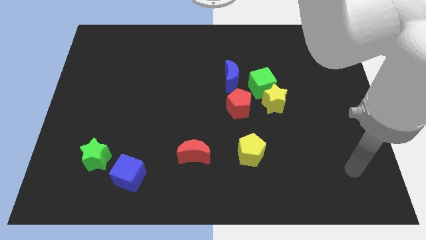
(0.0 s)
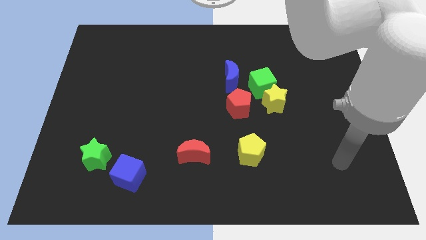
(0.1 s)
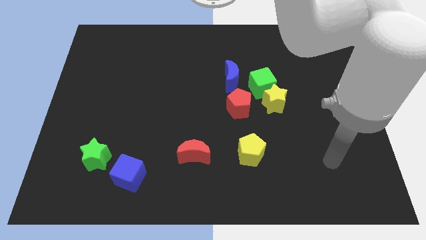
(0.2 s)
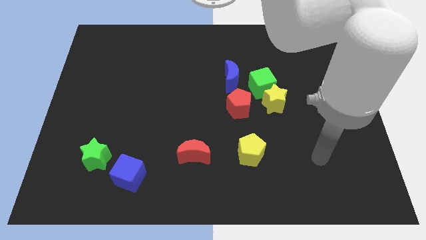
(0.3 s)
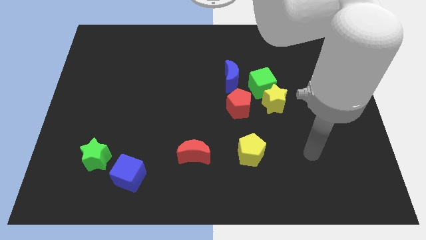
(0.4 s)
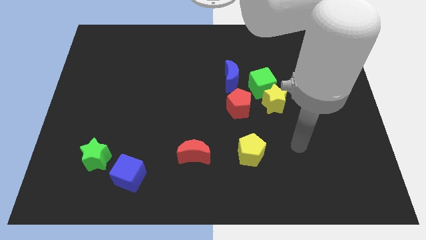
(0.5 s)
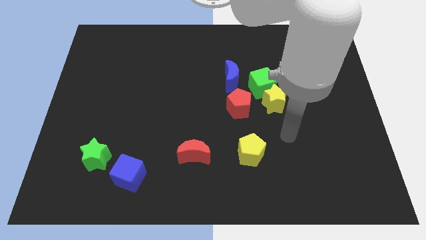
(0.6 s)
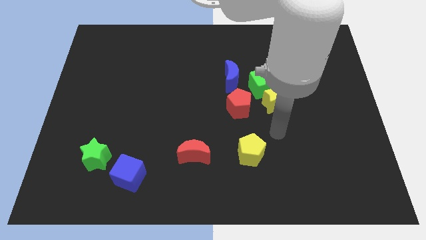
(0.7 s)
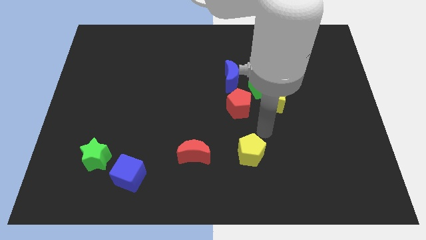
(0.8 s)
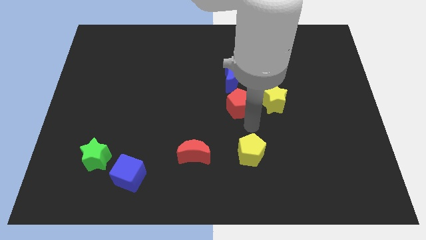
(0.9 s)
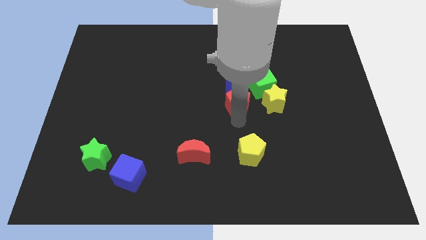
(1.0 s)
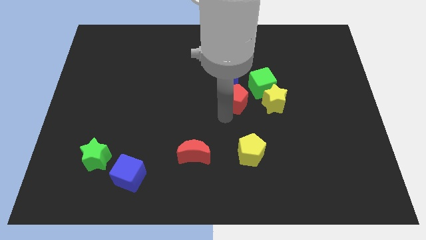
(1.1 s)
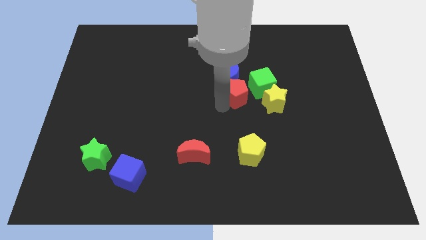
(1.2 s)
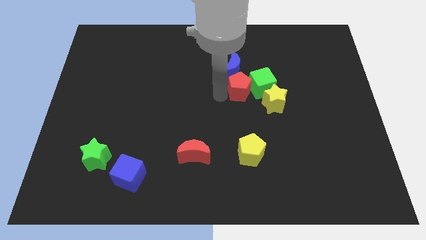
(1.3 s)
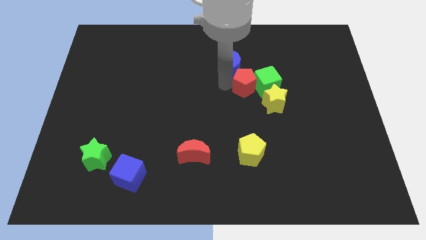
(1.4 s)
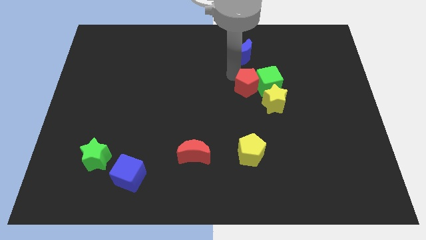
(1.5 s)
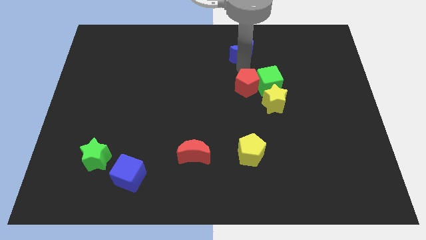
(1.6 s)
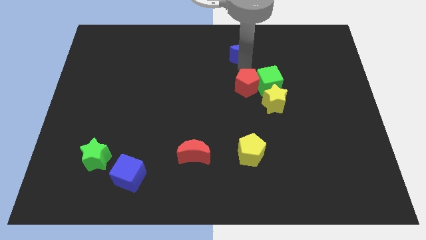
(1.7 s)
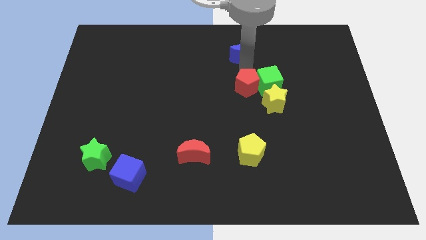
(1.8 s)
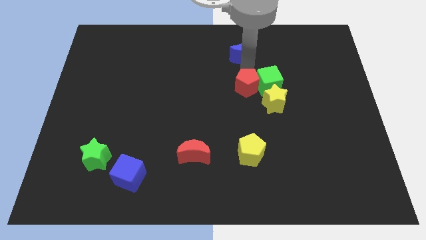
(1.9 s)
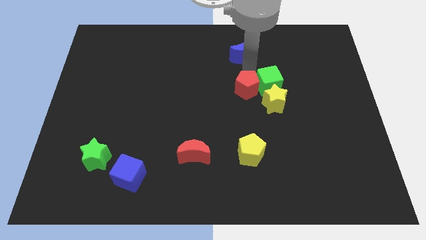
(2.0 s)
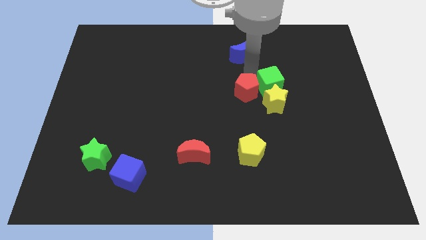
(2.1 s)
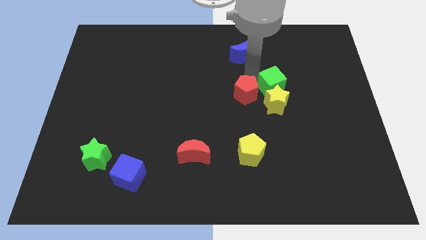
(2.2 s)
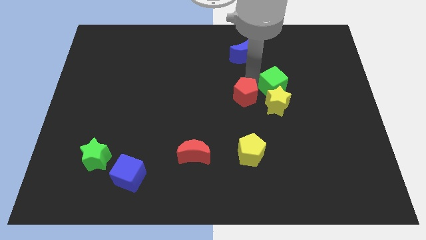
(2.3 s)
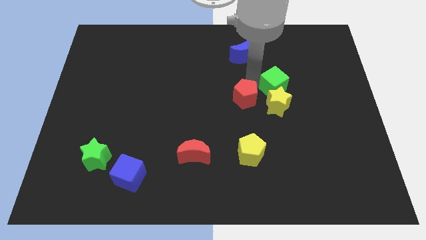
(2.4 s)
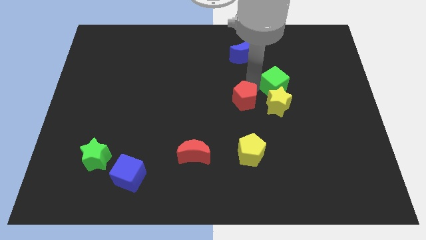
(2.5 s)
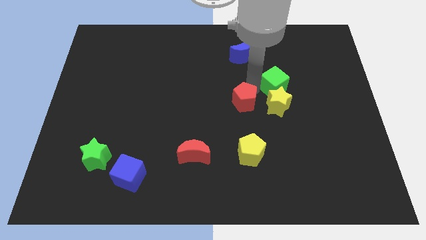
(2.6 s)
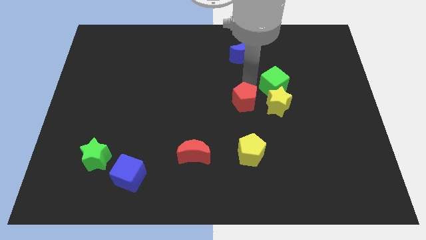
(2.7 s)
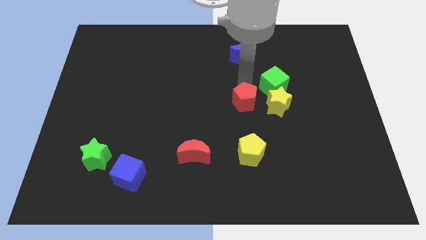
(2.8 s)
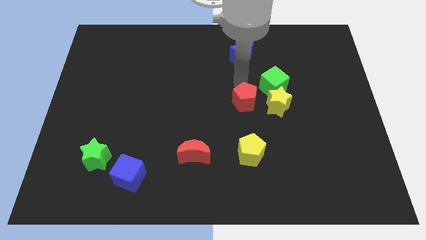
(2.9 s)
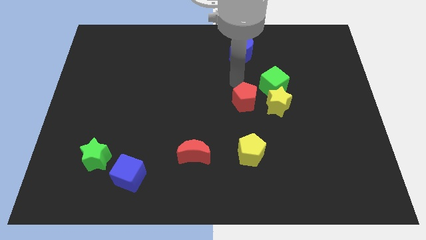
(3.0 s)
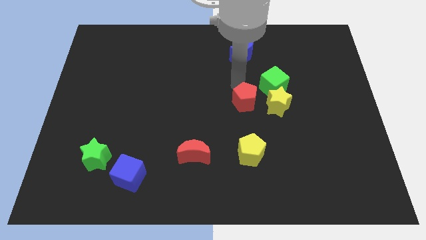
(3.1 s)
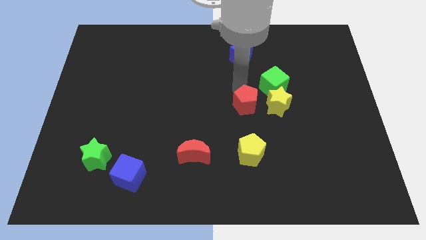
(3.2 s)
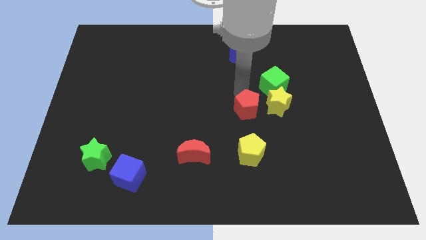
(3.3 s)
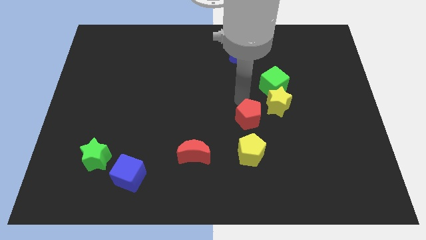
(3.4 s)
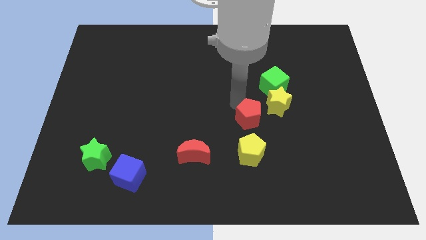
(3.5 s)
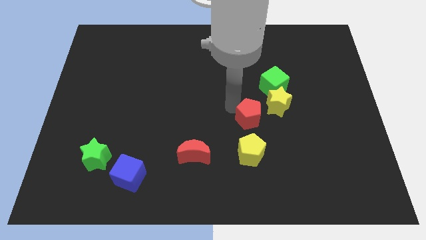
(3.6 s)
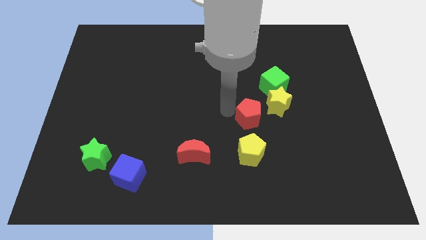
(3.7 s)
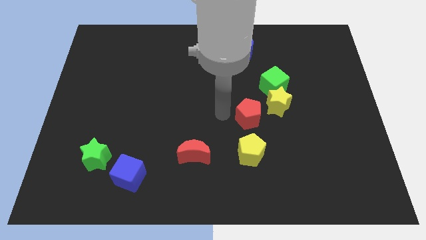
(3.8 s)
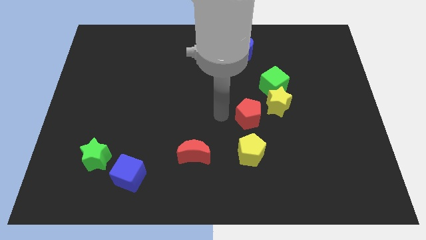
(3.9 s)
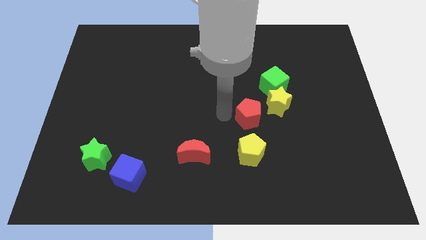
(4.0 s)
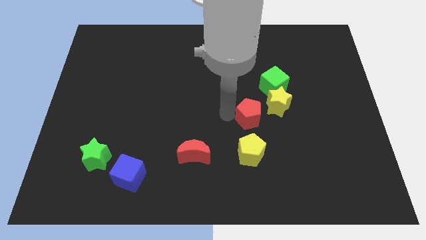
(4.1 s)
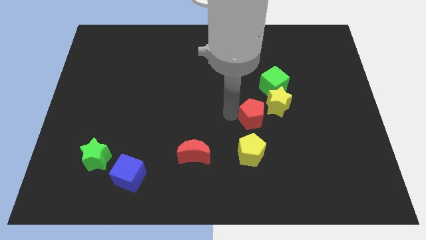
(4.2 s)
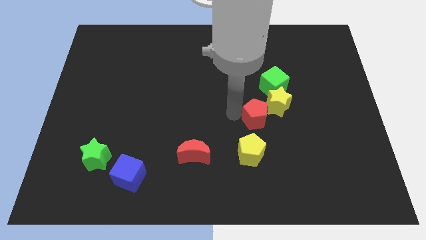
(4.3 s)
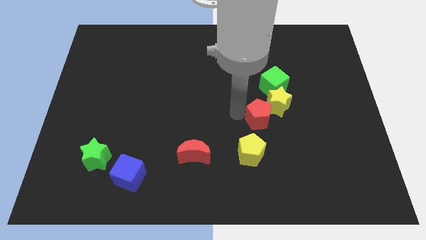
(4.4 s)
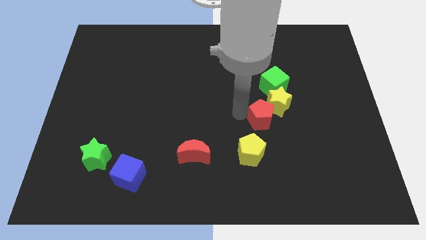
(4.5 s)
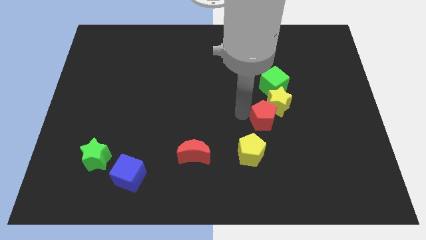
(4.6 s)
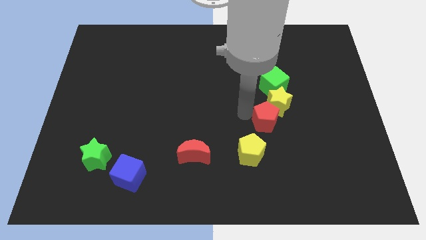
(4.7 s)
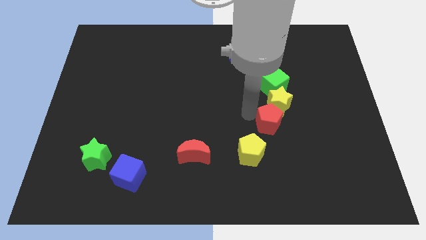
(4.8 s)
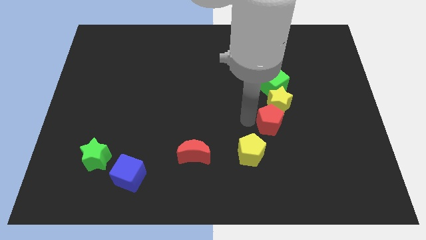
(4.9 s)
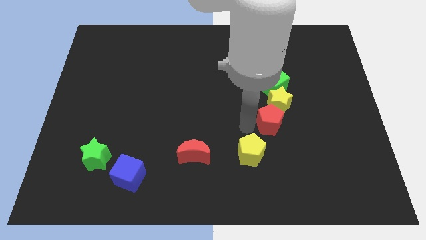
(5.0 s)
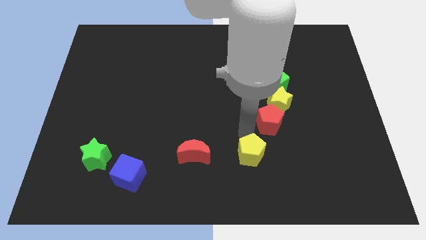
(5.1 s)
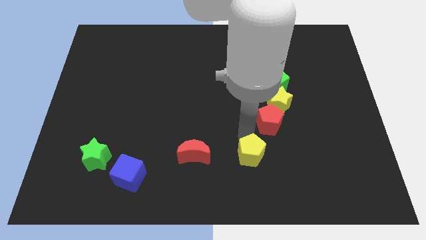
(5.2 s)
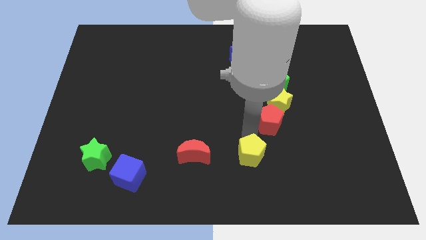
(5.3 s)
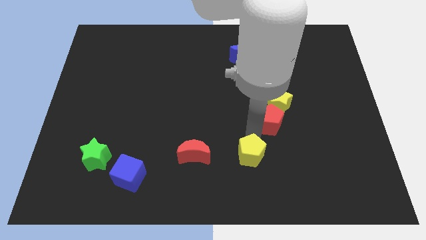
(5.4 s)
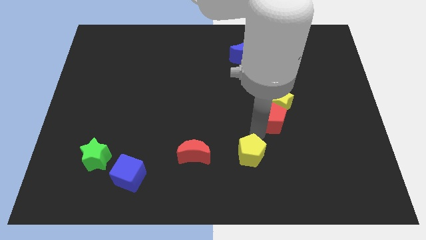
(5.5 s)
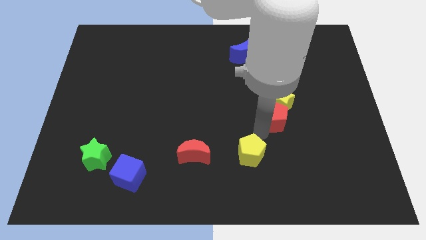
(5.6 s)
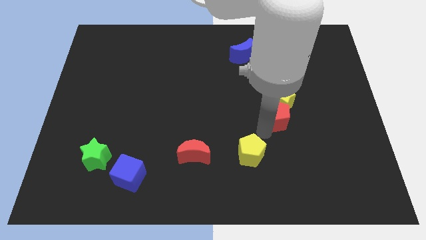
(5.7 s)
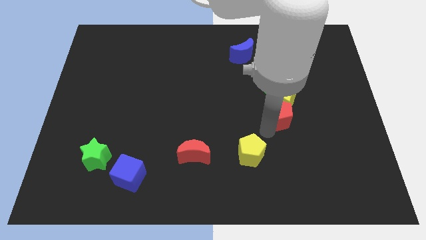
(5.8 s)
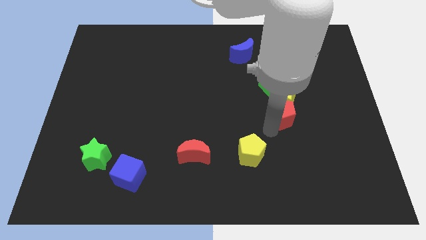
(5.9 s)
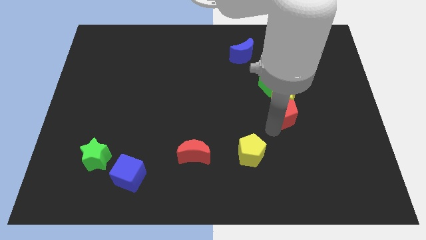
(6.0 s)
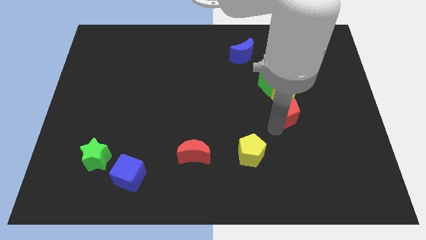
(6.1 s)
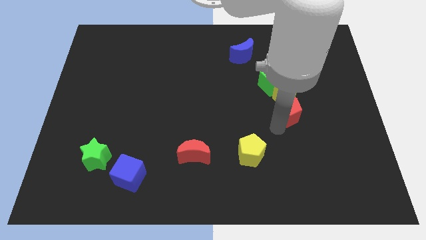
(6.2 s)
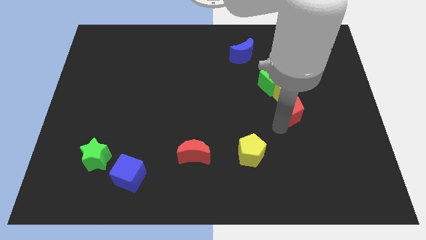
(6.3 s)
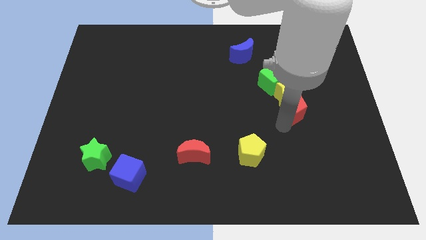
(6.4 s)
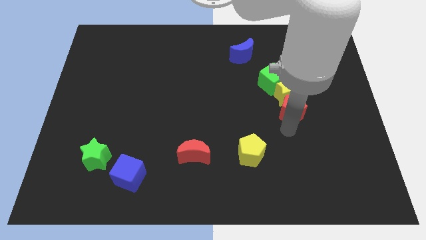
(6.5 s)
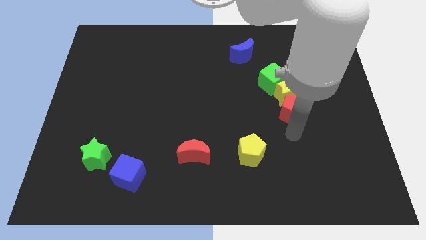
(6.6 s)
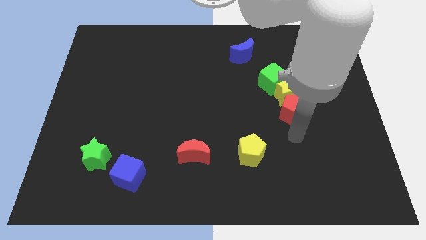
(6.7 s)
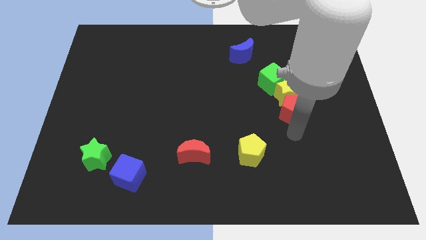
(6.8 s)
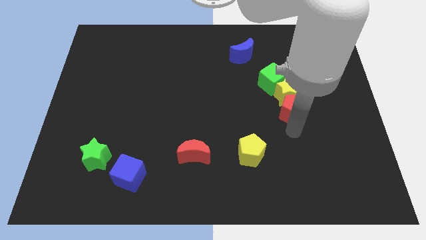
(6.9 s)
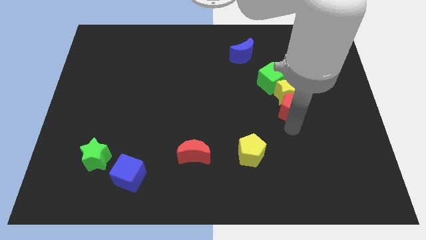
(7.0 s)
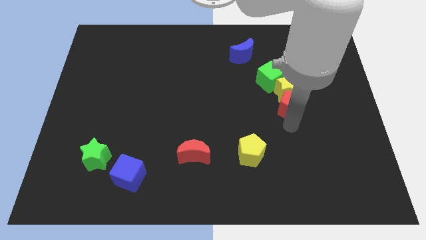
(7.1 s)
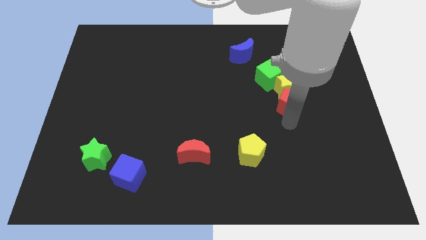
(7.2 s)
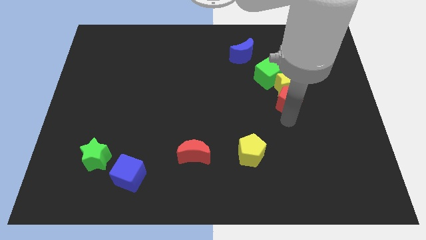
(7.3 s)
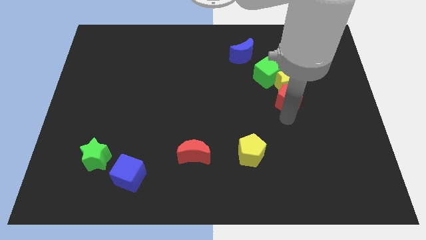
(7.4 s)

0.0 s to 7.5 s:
slide the red pentagon diagonally upwards and right a little bit

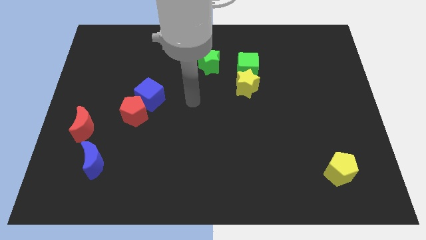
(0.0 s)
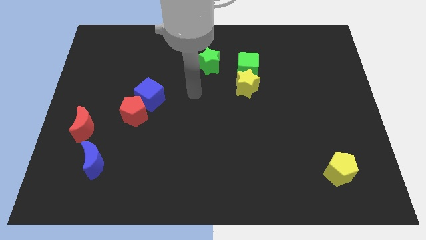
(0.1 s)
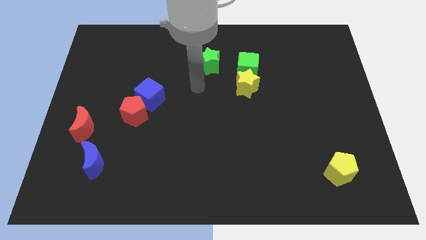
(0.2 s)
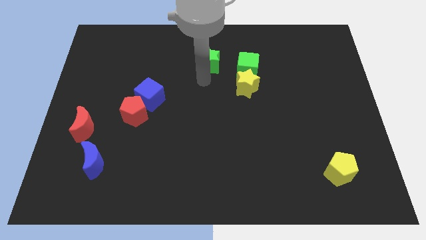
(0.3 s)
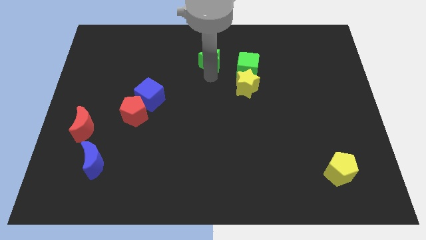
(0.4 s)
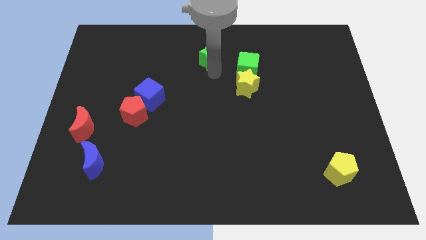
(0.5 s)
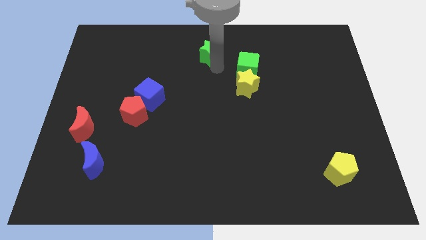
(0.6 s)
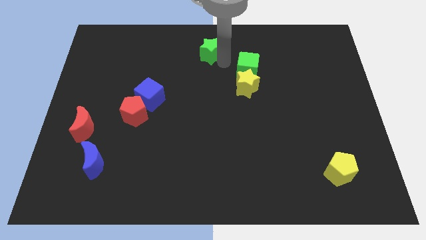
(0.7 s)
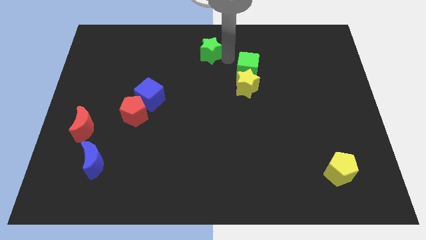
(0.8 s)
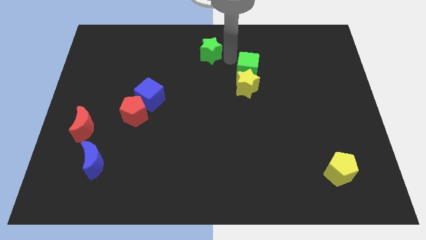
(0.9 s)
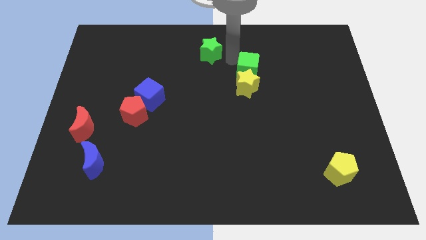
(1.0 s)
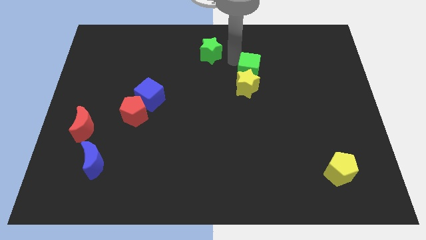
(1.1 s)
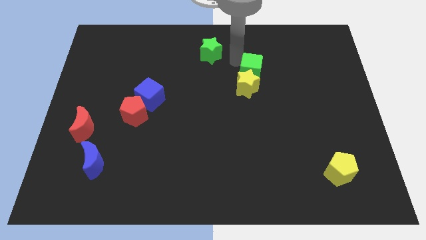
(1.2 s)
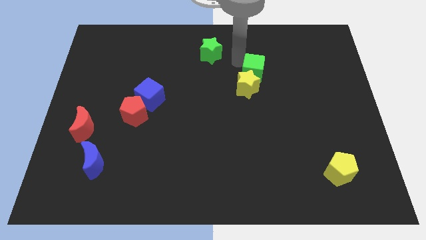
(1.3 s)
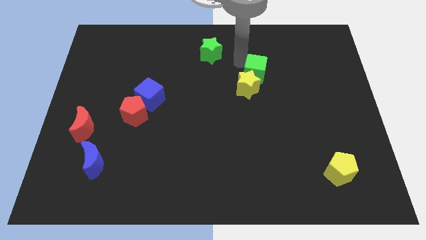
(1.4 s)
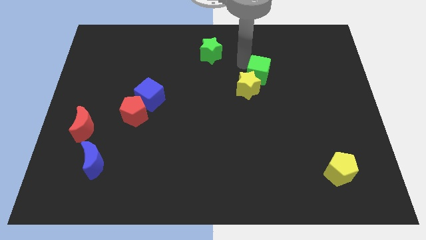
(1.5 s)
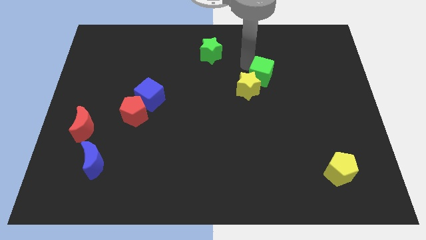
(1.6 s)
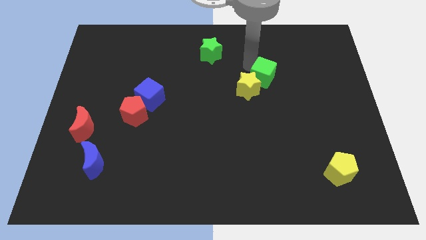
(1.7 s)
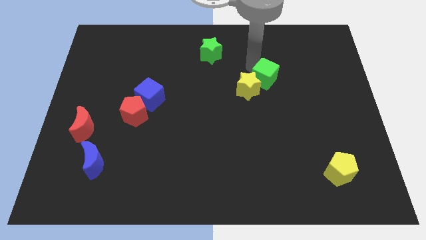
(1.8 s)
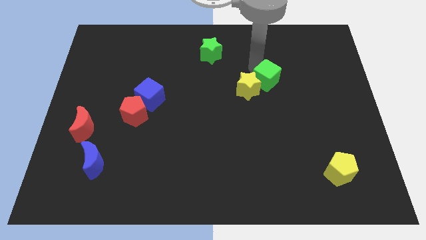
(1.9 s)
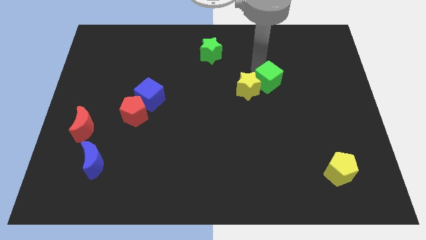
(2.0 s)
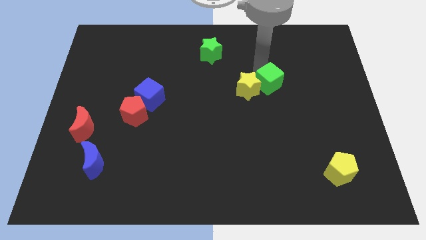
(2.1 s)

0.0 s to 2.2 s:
slightly move the green cube downwards and to the right
